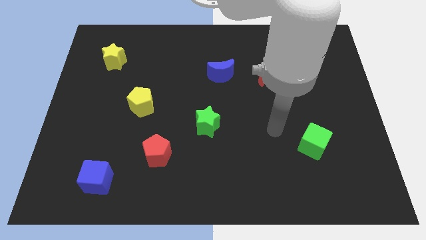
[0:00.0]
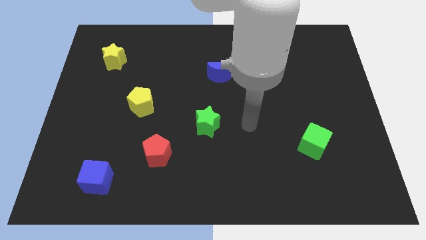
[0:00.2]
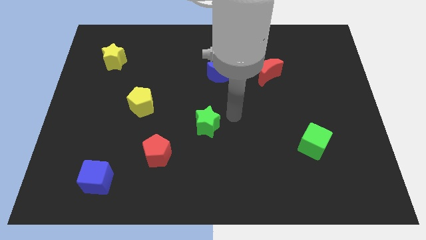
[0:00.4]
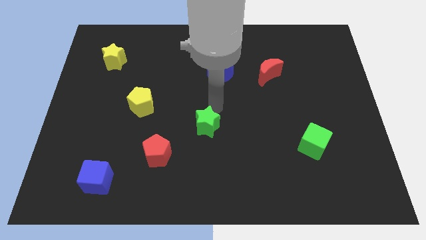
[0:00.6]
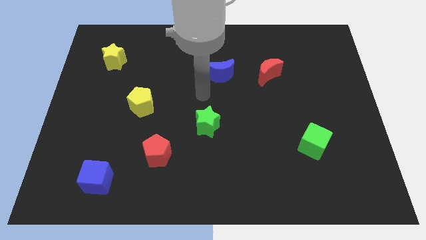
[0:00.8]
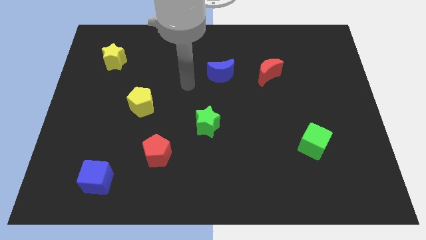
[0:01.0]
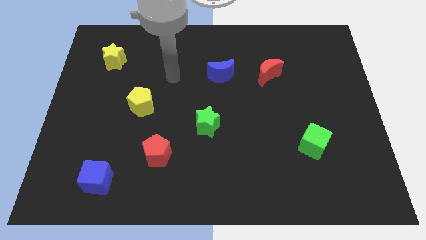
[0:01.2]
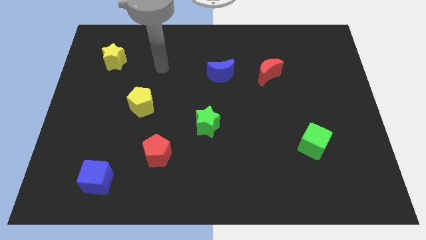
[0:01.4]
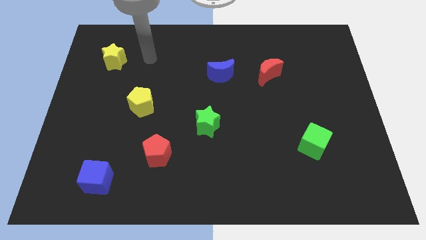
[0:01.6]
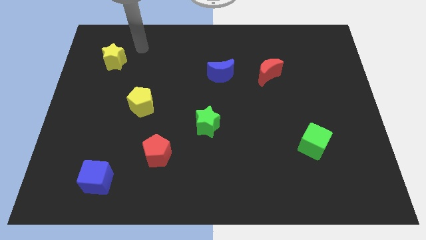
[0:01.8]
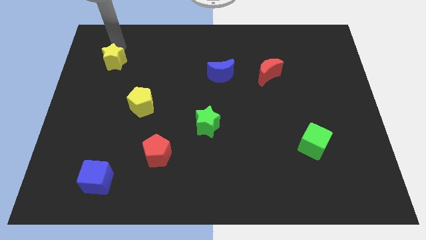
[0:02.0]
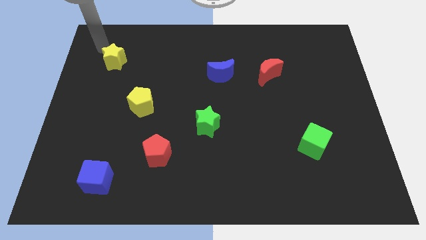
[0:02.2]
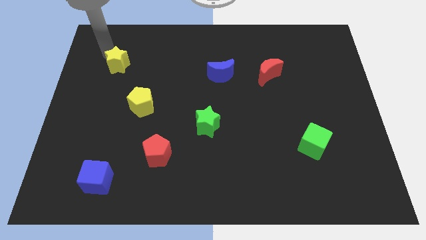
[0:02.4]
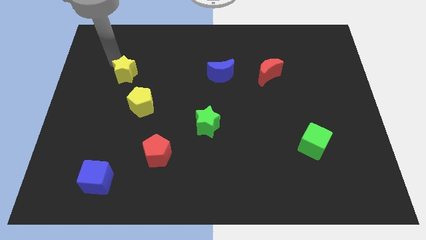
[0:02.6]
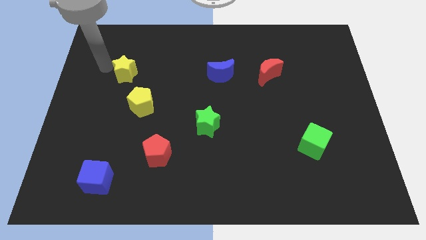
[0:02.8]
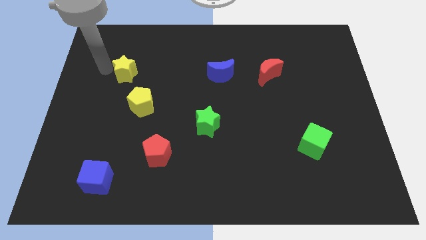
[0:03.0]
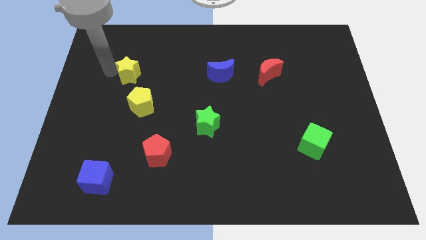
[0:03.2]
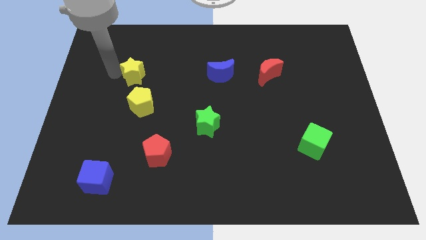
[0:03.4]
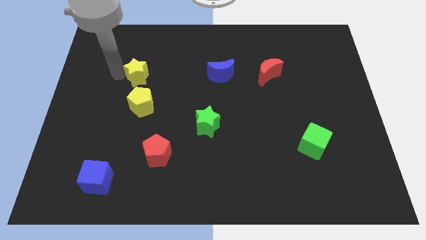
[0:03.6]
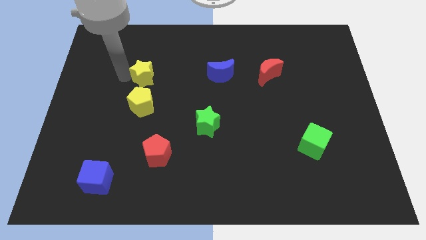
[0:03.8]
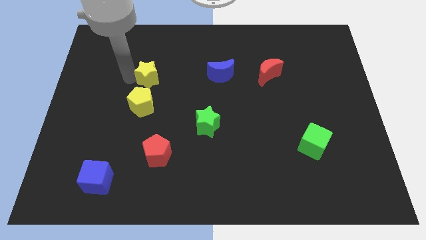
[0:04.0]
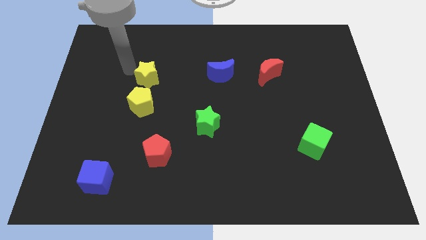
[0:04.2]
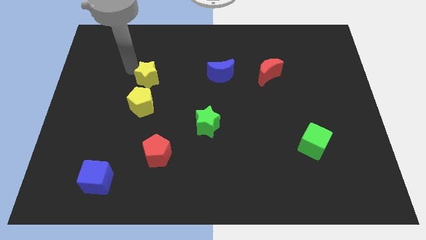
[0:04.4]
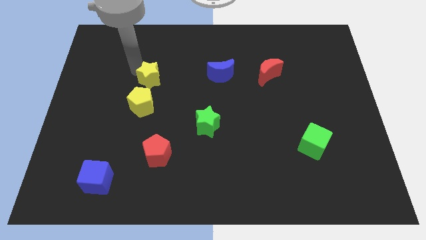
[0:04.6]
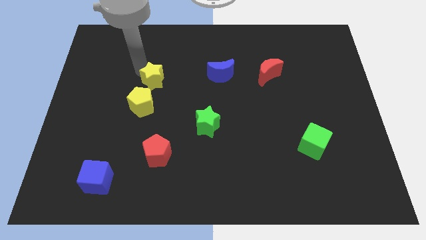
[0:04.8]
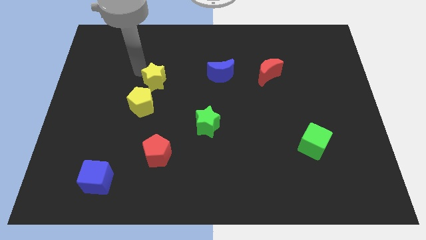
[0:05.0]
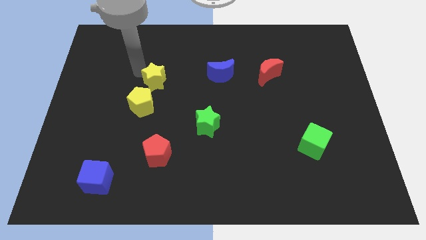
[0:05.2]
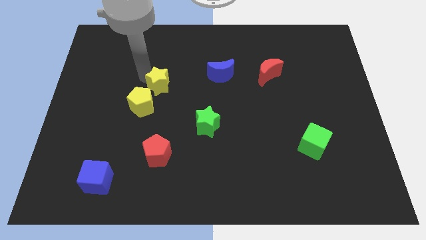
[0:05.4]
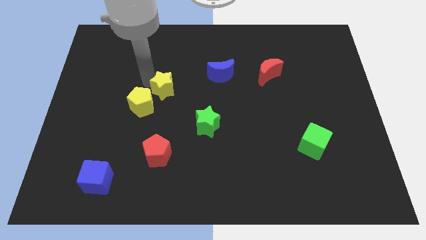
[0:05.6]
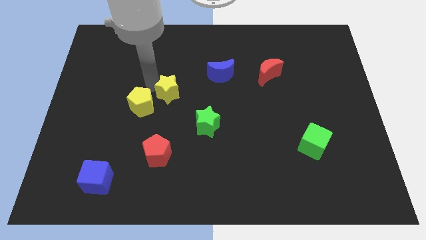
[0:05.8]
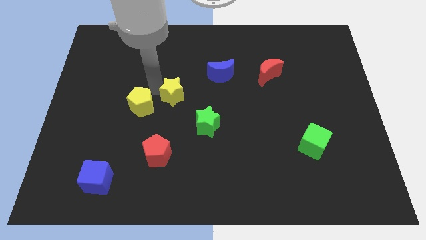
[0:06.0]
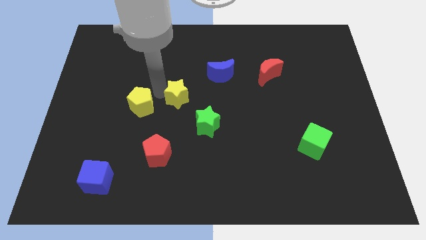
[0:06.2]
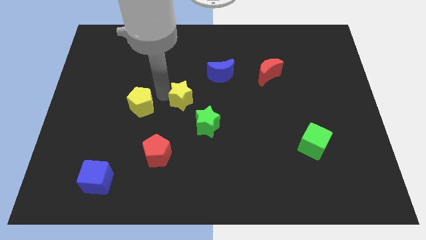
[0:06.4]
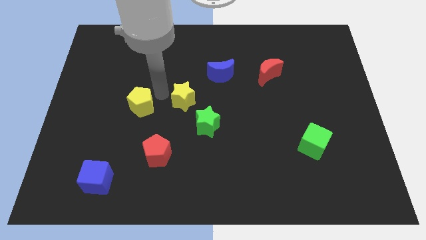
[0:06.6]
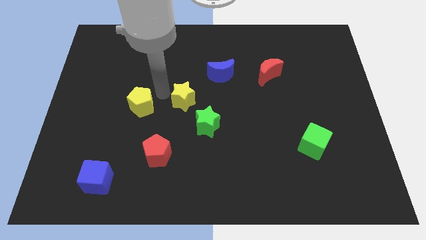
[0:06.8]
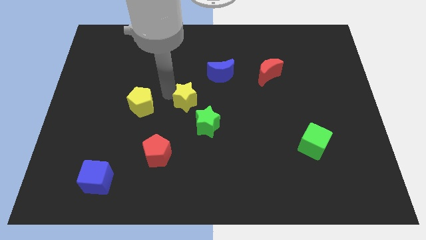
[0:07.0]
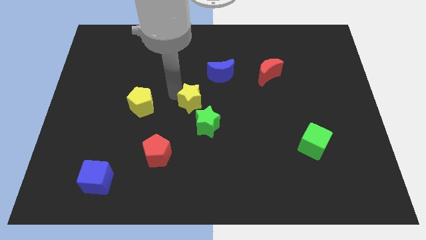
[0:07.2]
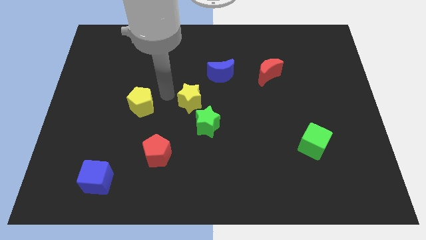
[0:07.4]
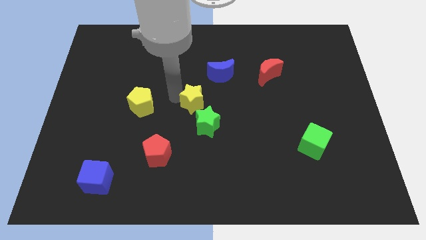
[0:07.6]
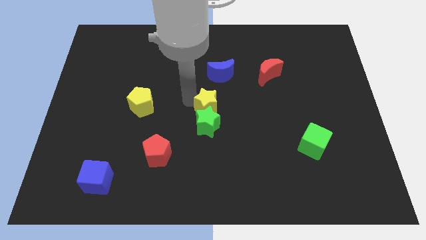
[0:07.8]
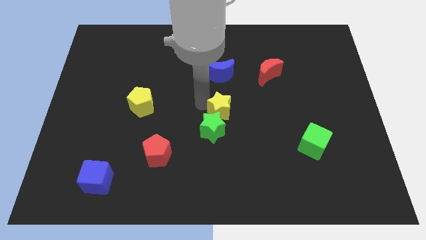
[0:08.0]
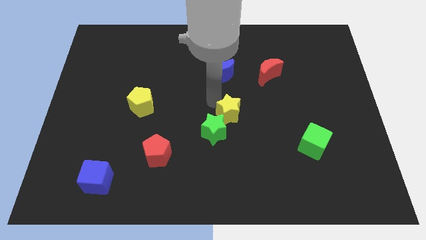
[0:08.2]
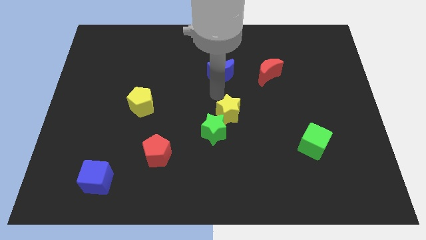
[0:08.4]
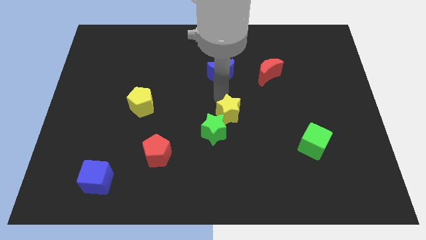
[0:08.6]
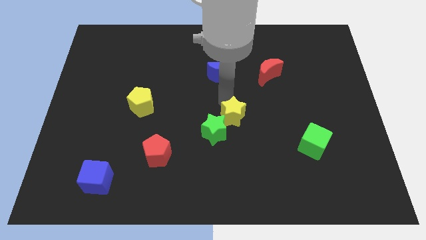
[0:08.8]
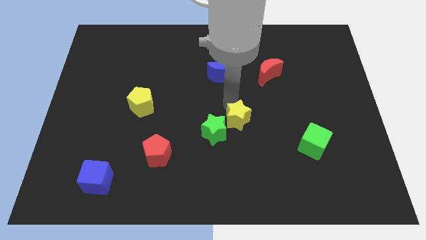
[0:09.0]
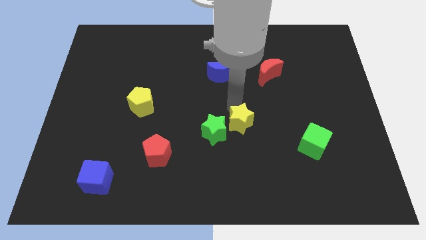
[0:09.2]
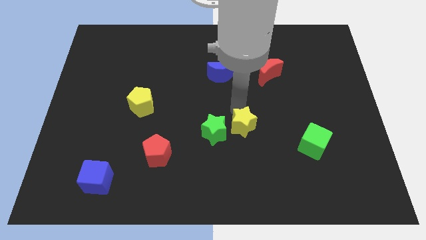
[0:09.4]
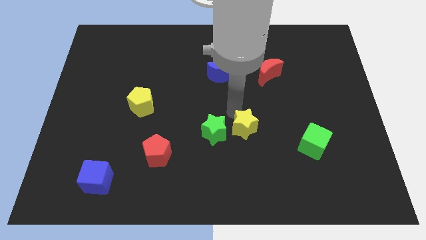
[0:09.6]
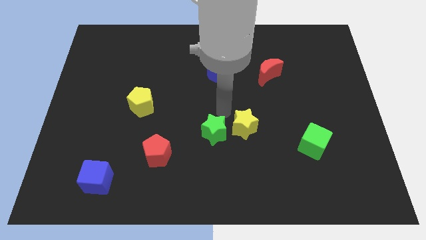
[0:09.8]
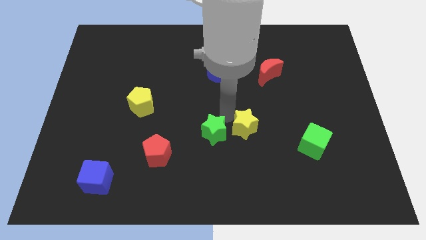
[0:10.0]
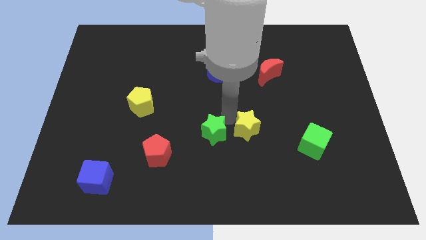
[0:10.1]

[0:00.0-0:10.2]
put the yellow star to the left side of the green cube

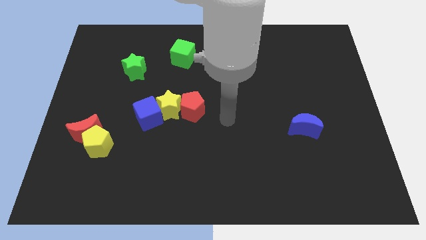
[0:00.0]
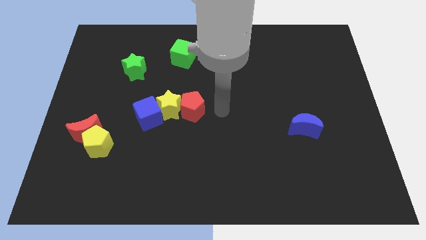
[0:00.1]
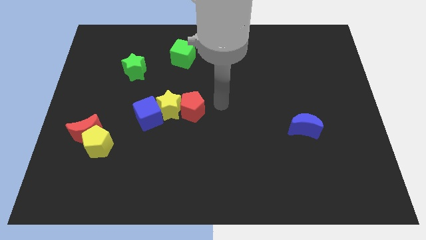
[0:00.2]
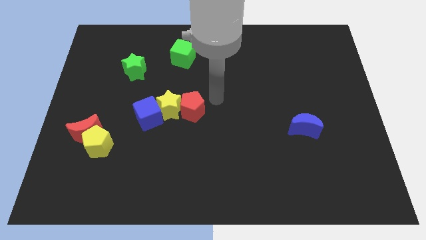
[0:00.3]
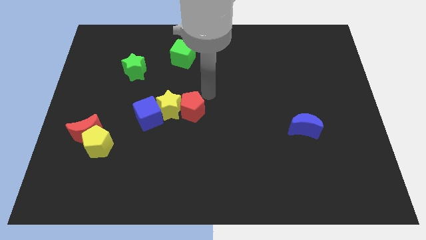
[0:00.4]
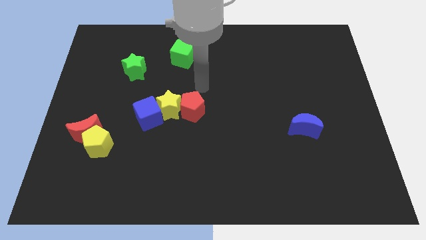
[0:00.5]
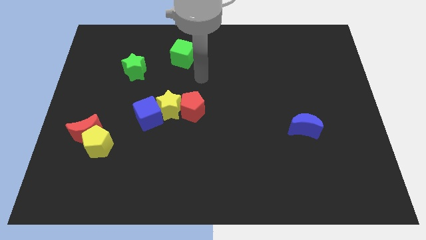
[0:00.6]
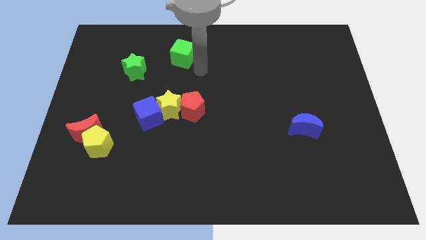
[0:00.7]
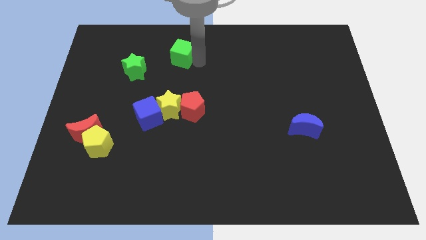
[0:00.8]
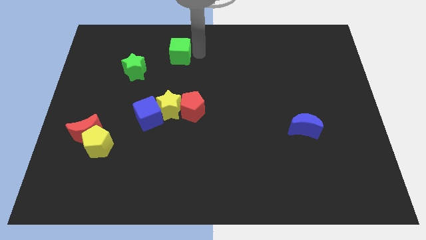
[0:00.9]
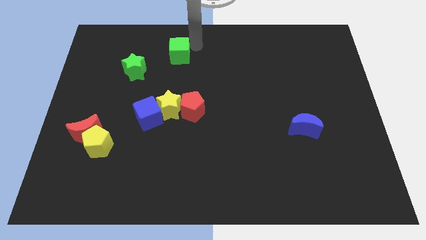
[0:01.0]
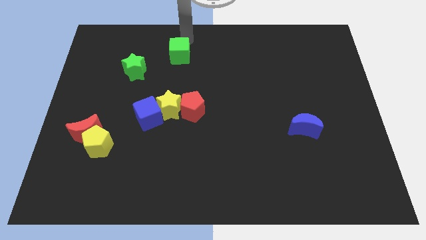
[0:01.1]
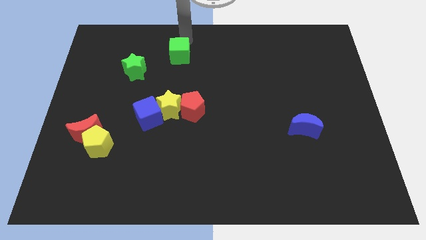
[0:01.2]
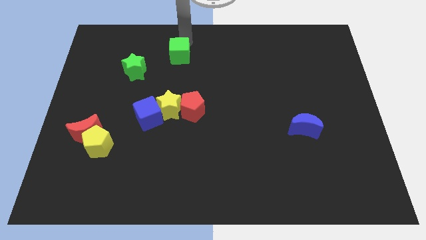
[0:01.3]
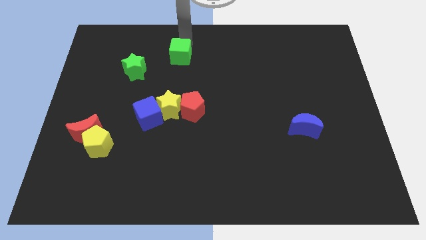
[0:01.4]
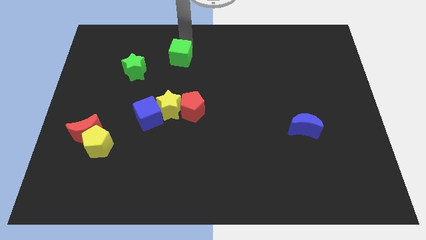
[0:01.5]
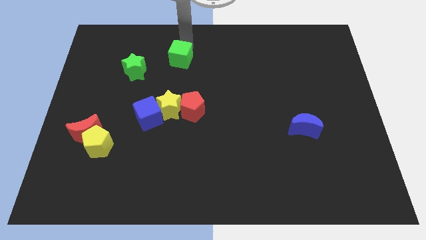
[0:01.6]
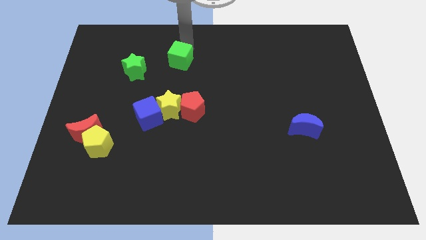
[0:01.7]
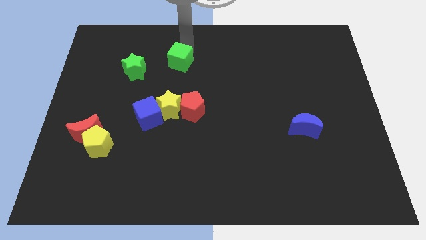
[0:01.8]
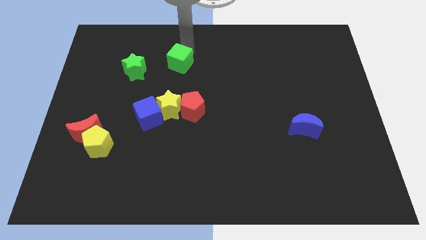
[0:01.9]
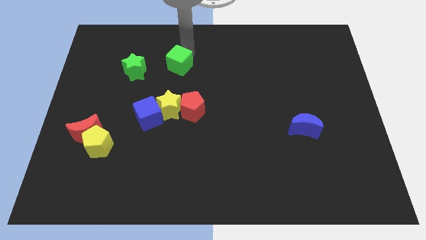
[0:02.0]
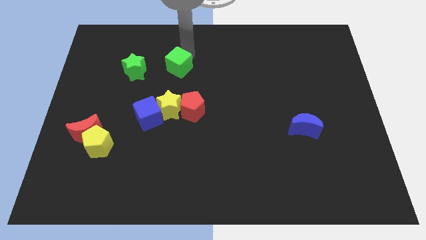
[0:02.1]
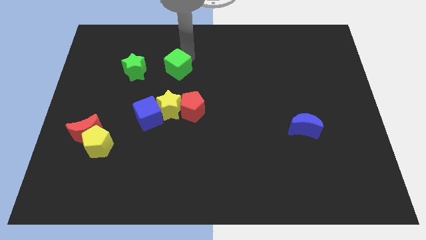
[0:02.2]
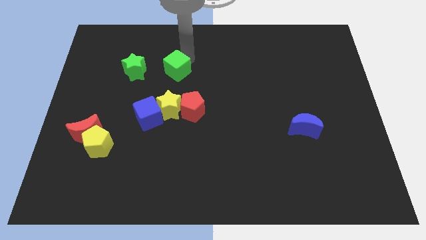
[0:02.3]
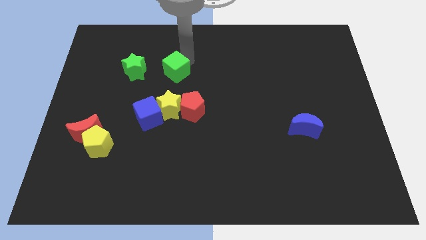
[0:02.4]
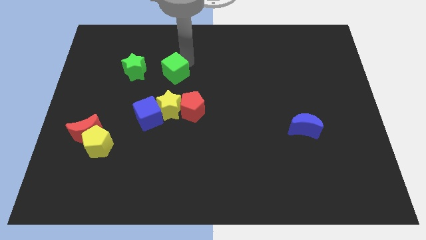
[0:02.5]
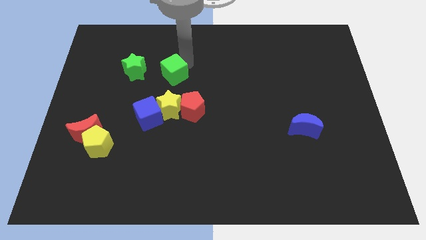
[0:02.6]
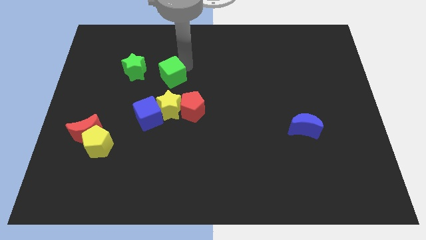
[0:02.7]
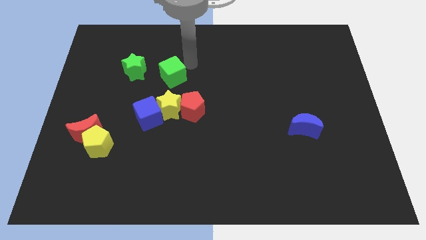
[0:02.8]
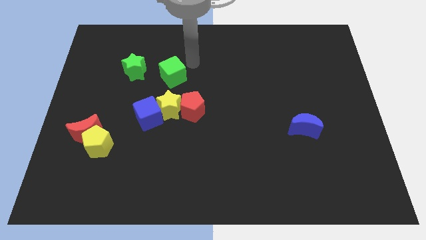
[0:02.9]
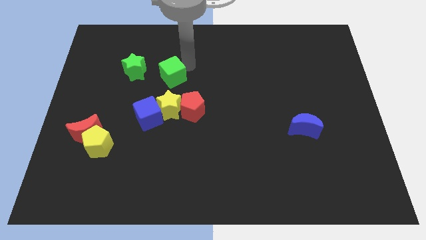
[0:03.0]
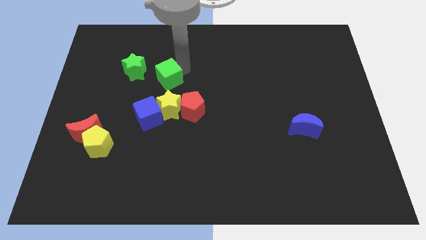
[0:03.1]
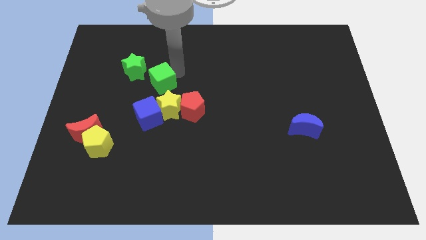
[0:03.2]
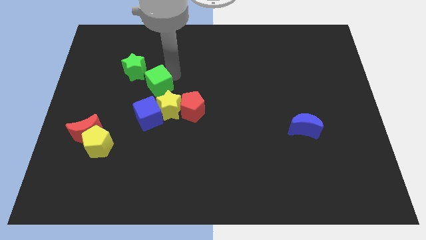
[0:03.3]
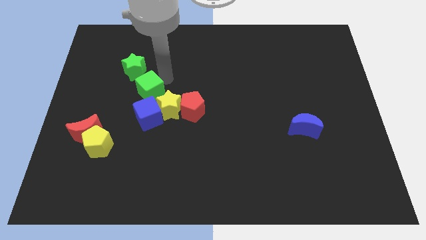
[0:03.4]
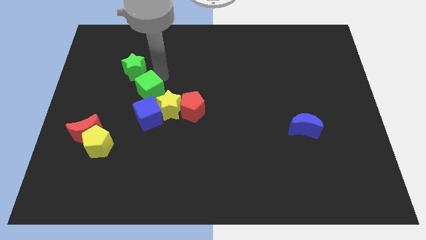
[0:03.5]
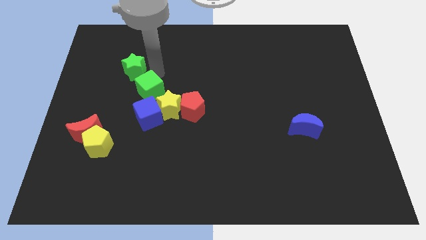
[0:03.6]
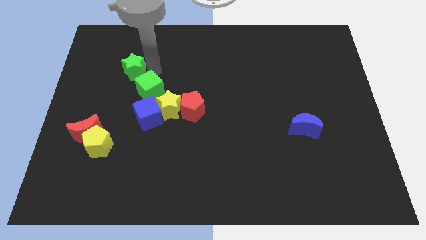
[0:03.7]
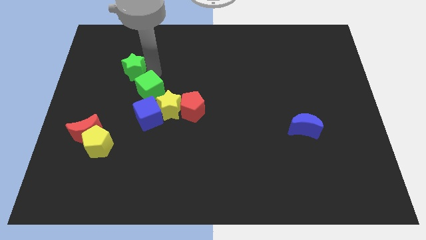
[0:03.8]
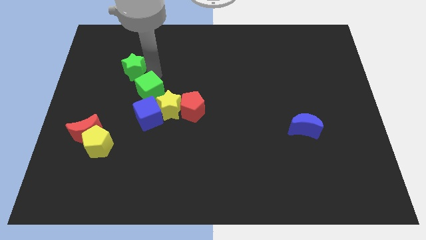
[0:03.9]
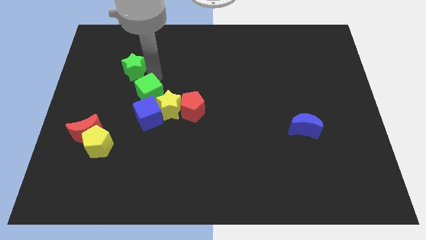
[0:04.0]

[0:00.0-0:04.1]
put the green cube just left of the red pentagon
